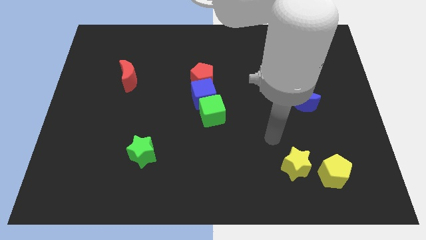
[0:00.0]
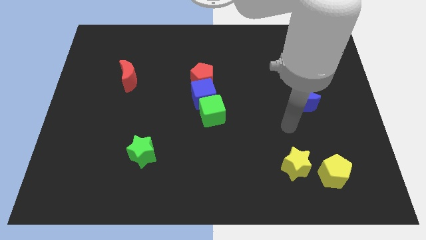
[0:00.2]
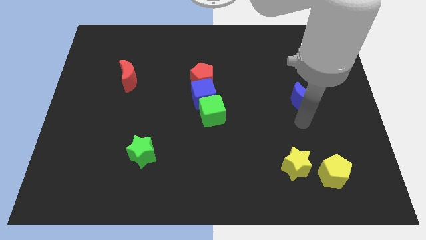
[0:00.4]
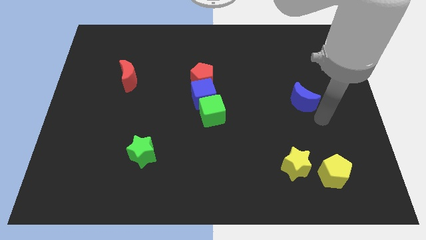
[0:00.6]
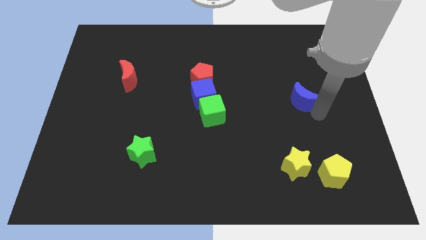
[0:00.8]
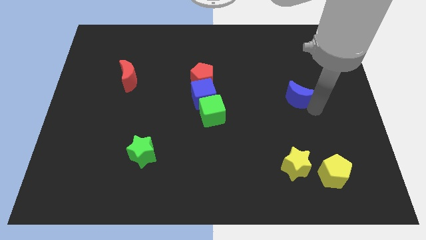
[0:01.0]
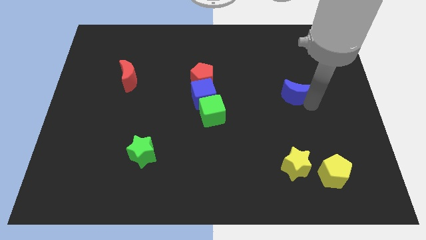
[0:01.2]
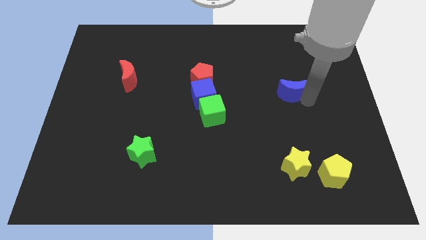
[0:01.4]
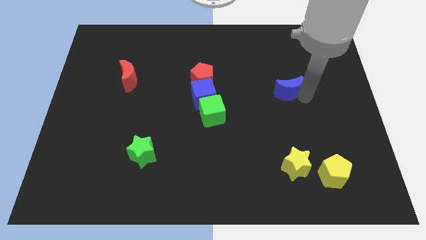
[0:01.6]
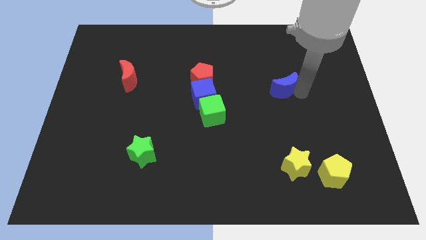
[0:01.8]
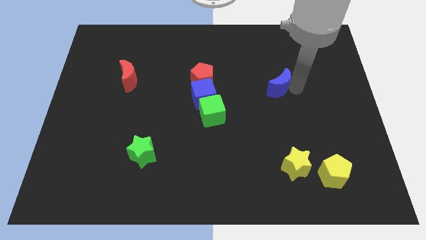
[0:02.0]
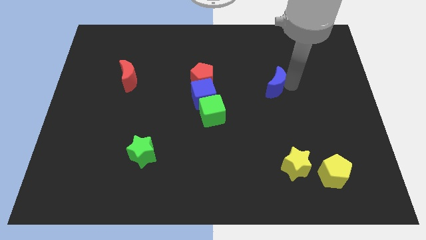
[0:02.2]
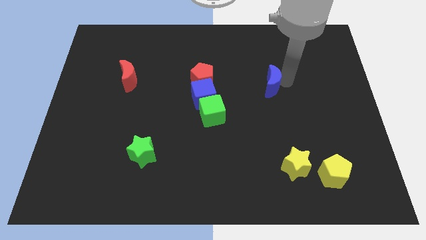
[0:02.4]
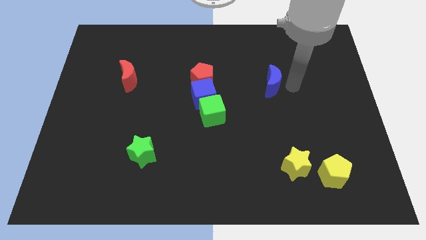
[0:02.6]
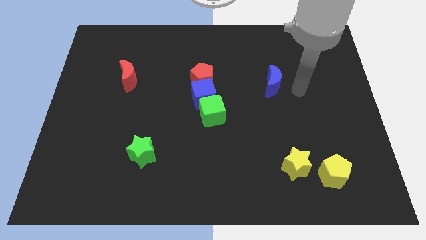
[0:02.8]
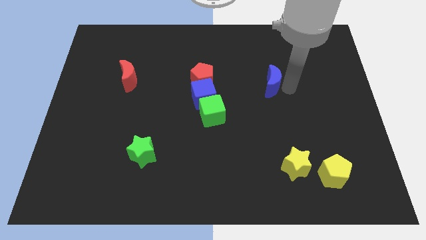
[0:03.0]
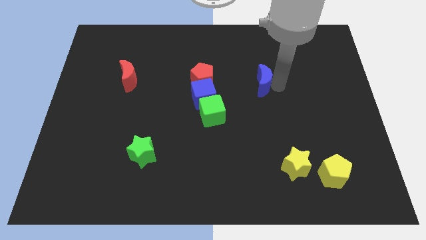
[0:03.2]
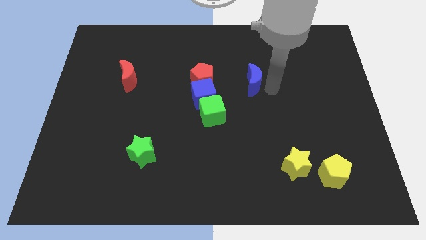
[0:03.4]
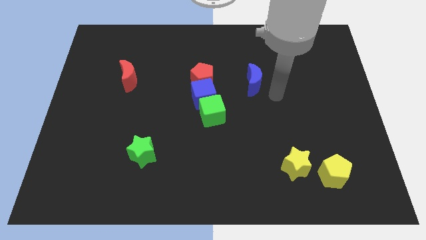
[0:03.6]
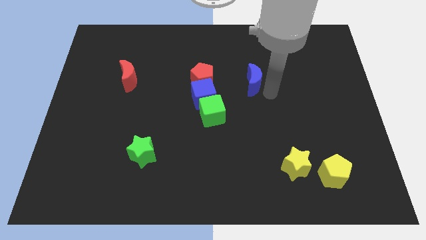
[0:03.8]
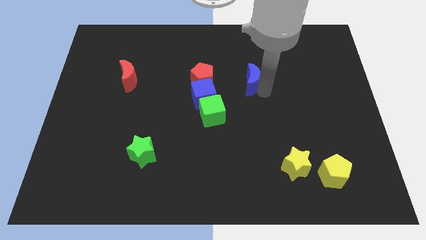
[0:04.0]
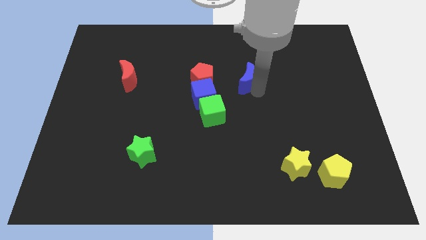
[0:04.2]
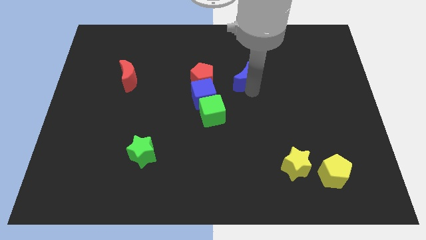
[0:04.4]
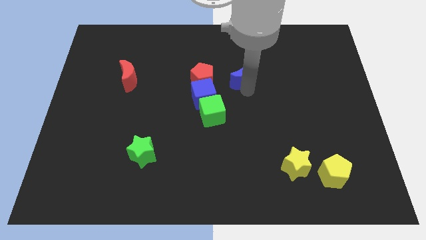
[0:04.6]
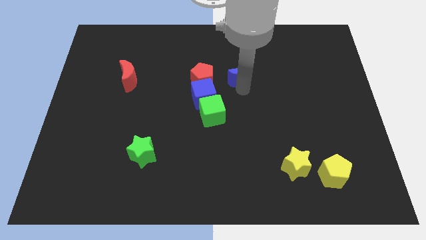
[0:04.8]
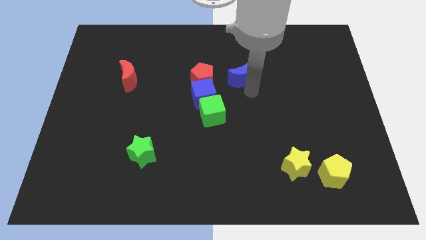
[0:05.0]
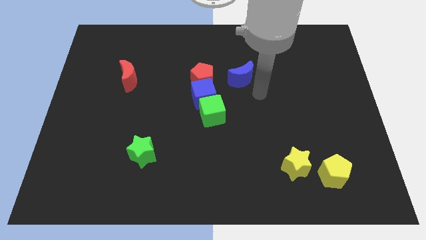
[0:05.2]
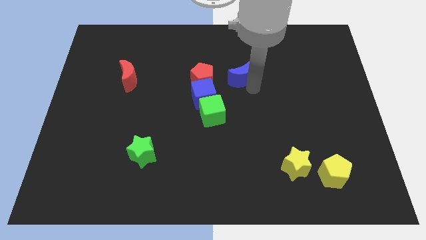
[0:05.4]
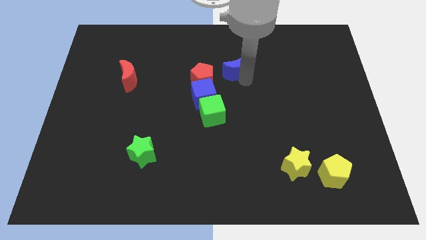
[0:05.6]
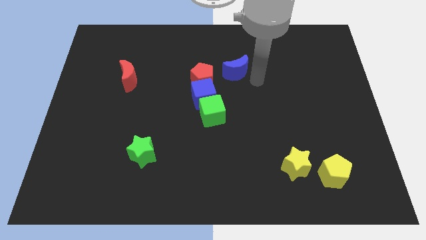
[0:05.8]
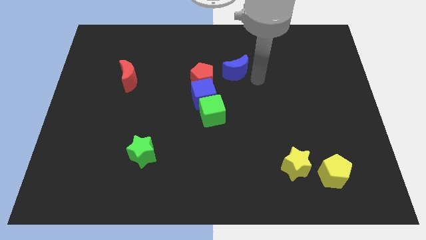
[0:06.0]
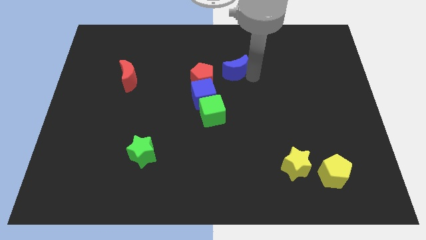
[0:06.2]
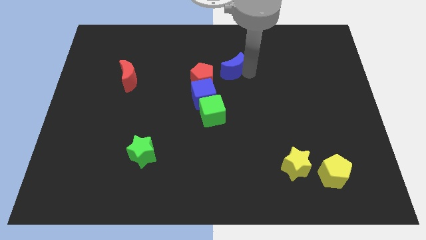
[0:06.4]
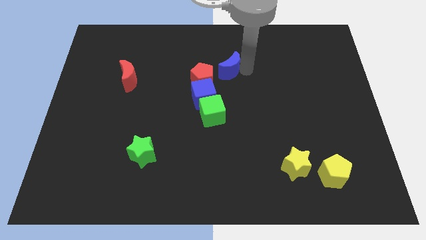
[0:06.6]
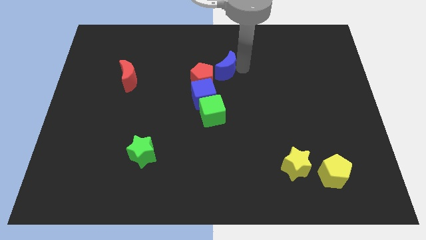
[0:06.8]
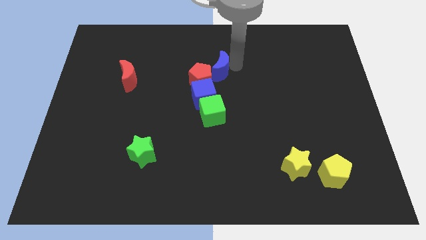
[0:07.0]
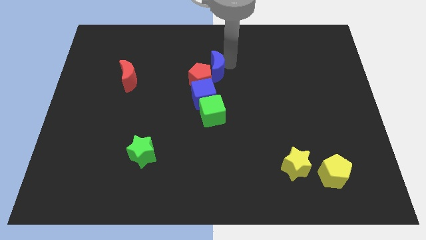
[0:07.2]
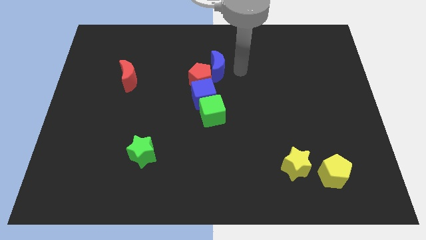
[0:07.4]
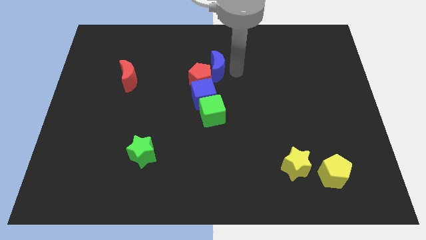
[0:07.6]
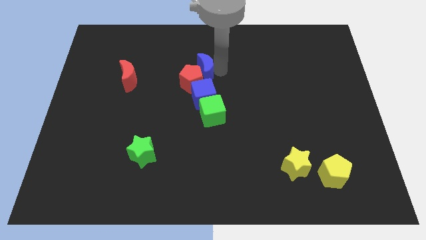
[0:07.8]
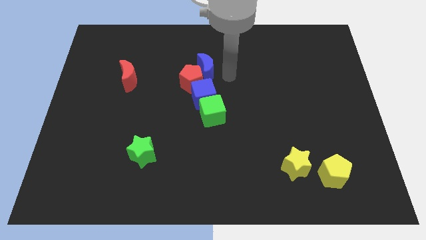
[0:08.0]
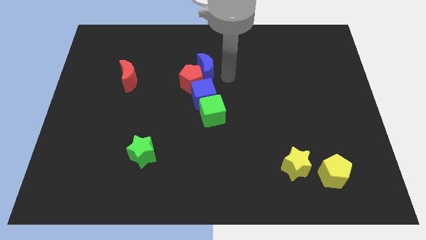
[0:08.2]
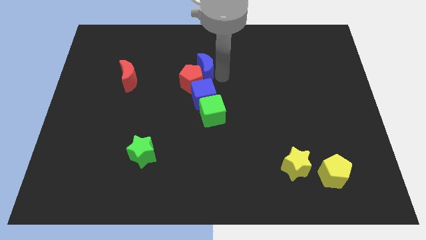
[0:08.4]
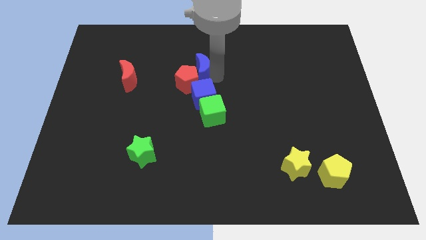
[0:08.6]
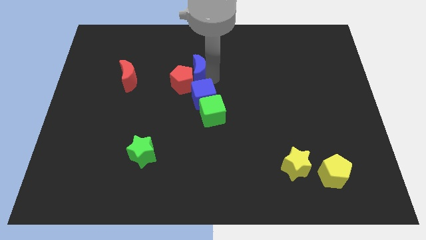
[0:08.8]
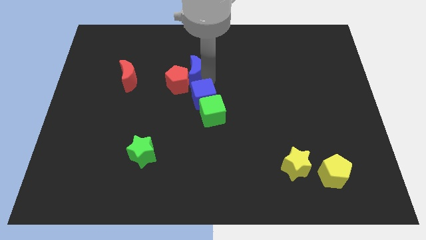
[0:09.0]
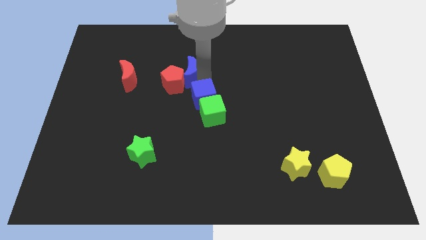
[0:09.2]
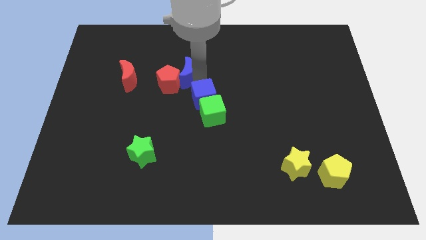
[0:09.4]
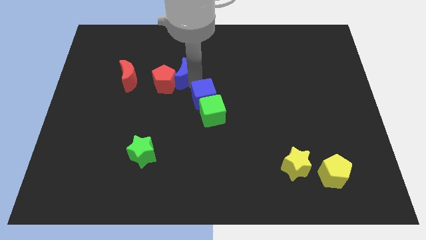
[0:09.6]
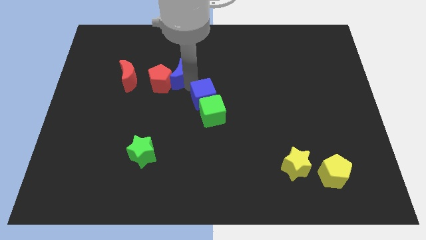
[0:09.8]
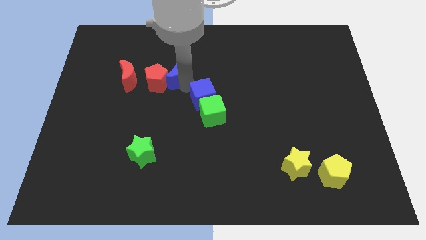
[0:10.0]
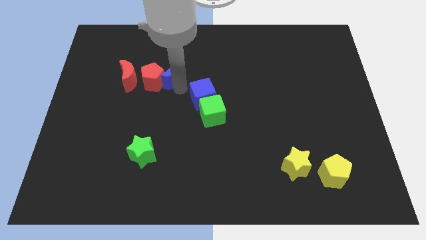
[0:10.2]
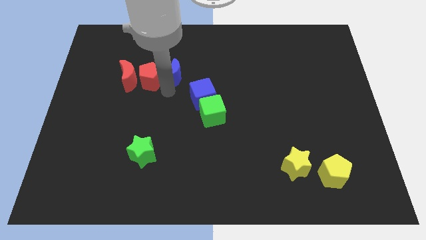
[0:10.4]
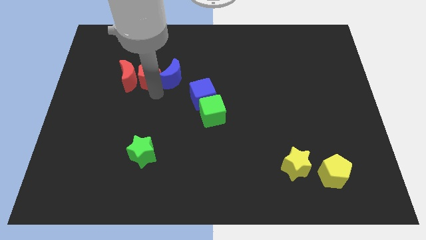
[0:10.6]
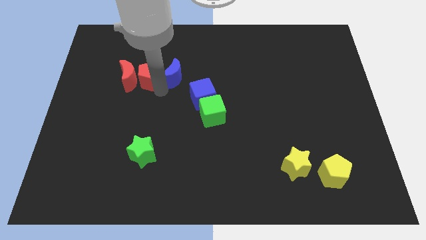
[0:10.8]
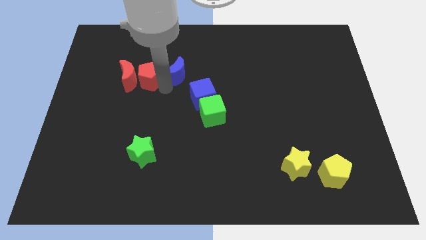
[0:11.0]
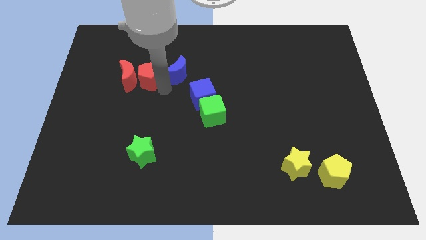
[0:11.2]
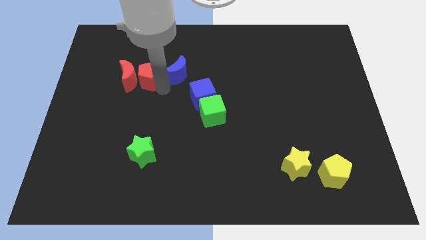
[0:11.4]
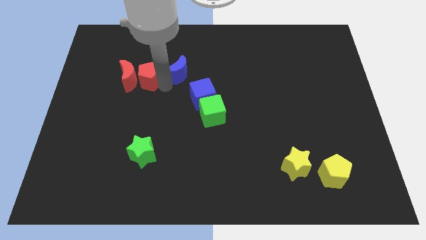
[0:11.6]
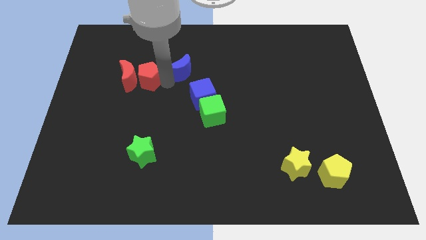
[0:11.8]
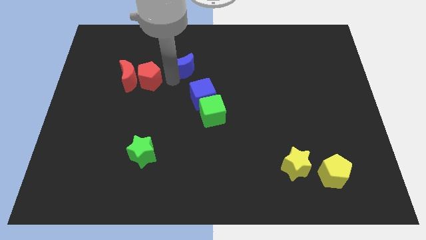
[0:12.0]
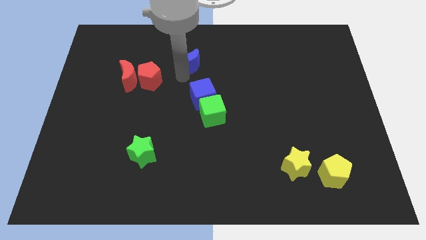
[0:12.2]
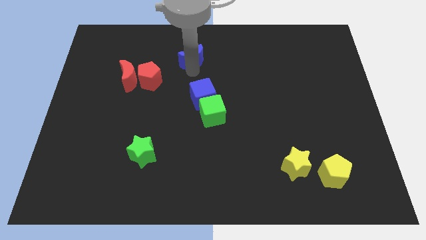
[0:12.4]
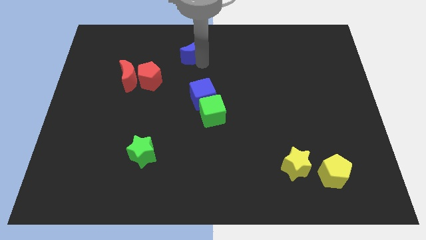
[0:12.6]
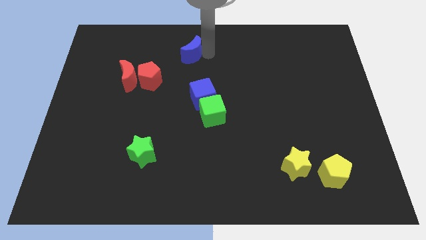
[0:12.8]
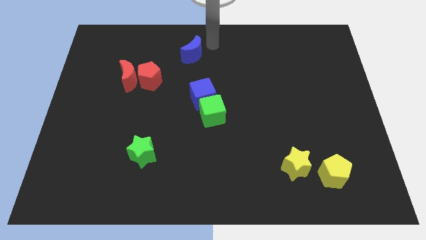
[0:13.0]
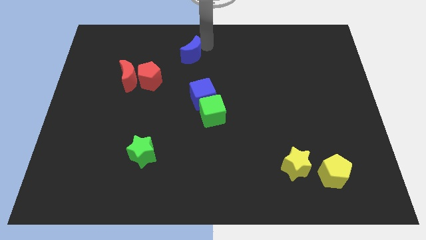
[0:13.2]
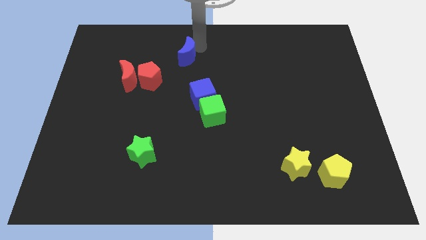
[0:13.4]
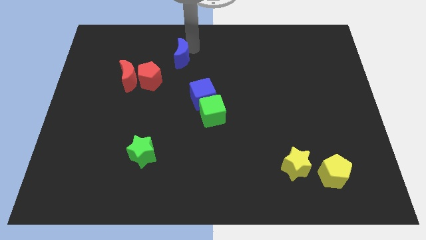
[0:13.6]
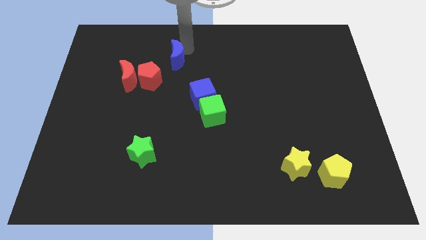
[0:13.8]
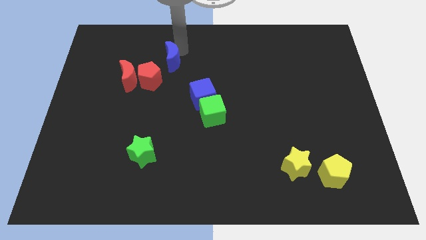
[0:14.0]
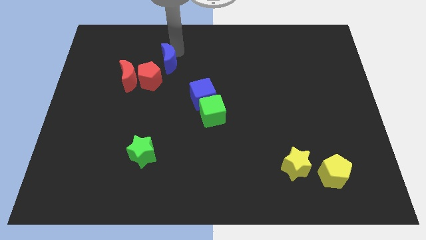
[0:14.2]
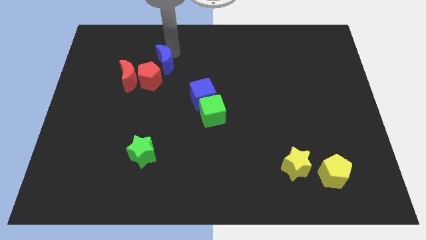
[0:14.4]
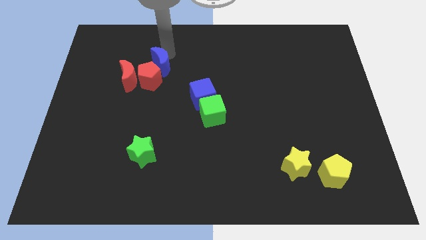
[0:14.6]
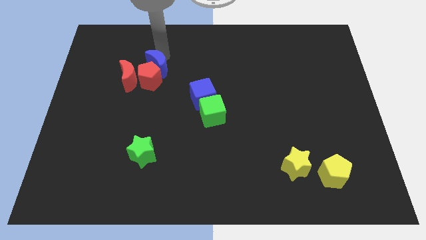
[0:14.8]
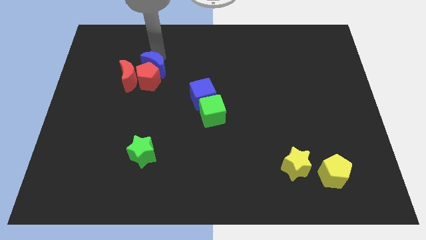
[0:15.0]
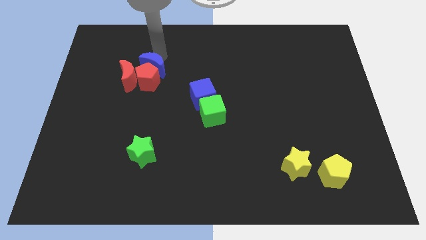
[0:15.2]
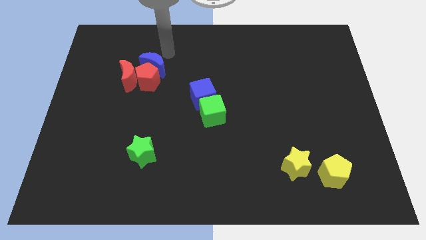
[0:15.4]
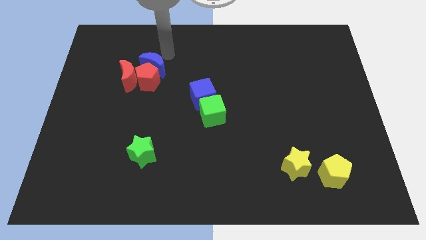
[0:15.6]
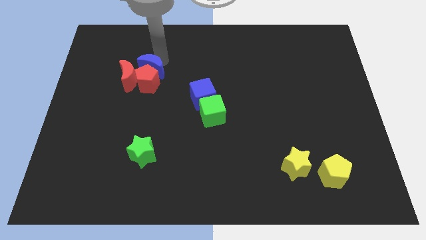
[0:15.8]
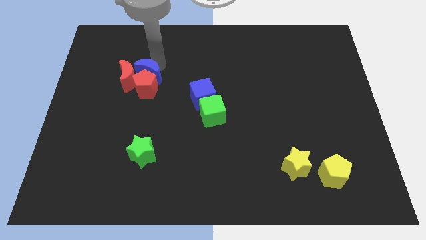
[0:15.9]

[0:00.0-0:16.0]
move the blue moon next to the red moon

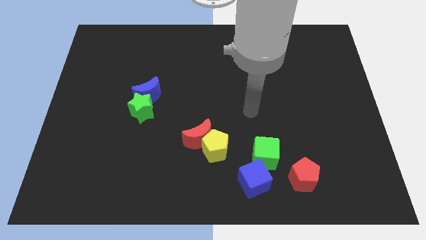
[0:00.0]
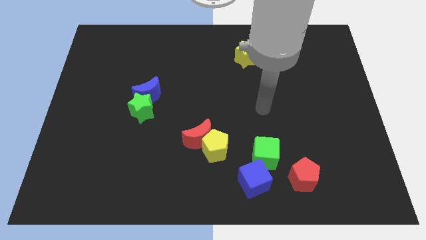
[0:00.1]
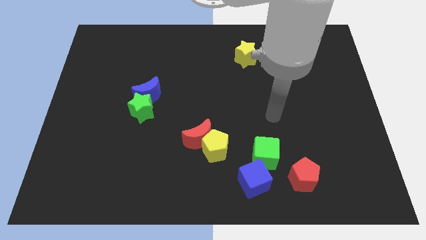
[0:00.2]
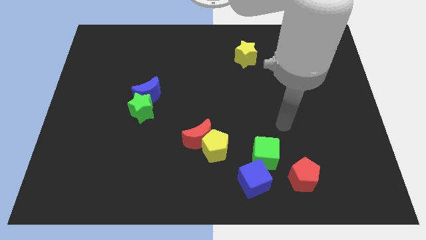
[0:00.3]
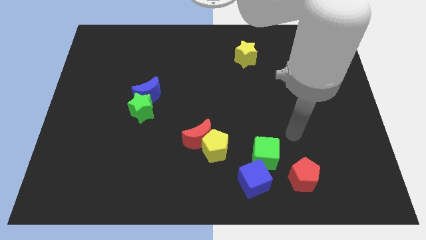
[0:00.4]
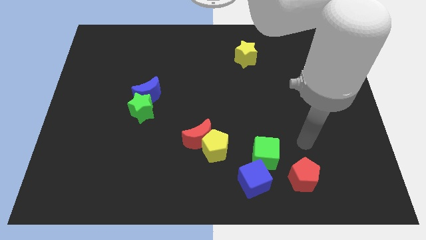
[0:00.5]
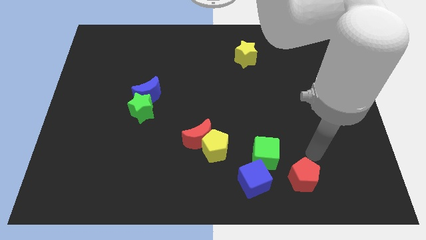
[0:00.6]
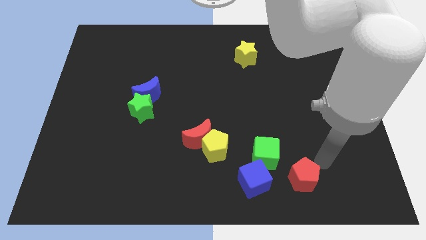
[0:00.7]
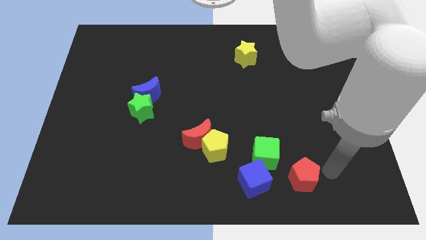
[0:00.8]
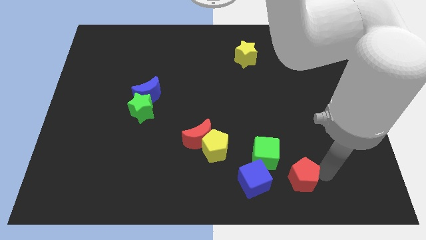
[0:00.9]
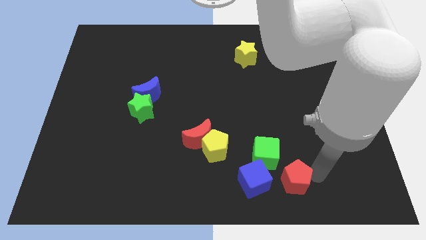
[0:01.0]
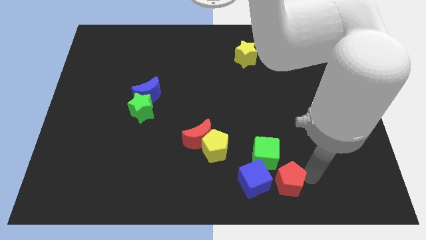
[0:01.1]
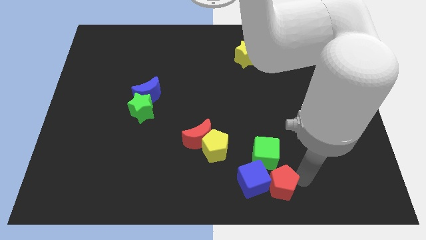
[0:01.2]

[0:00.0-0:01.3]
slide the red pentagon next to the blue cube
